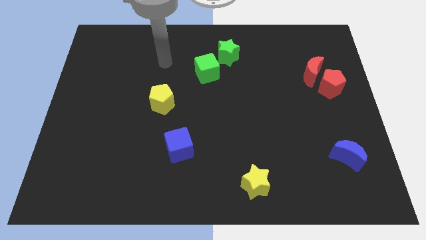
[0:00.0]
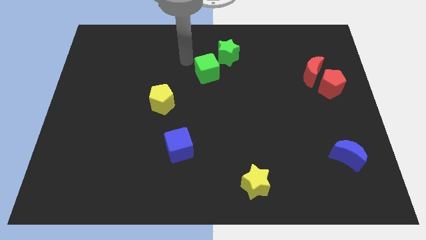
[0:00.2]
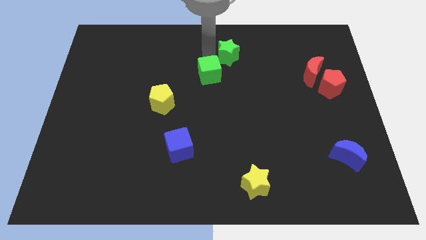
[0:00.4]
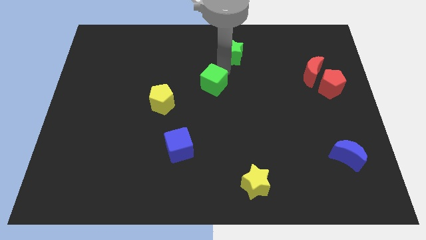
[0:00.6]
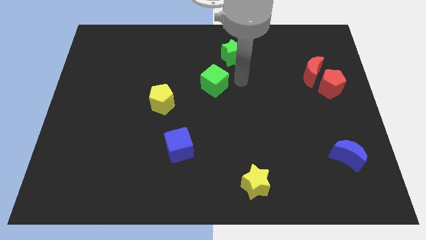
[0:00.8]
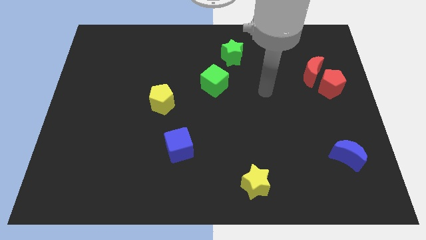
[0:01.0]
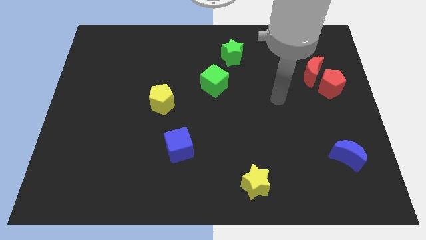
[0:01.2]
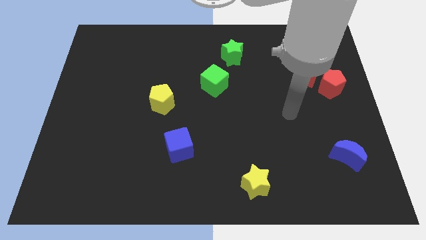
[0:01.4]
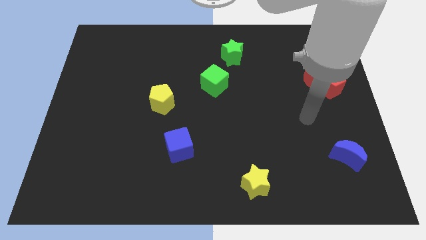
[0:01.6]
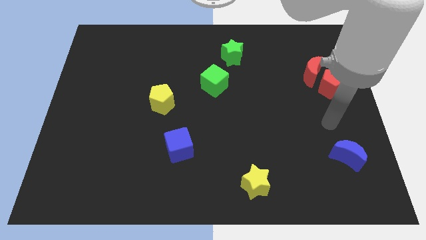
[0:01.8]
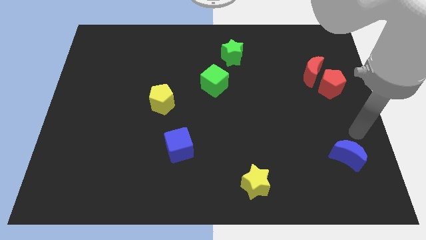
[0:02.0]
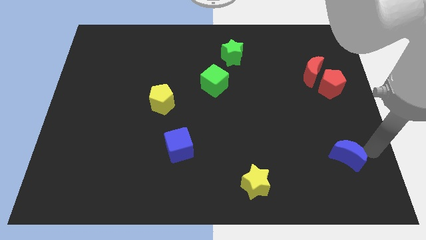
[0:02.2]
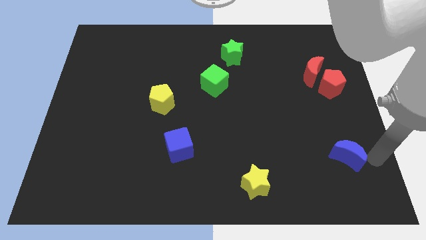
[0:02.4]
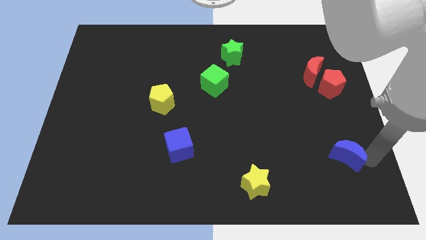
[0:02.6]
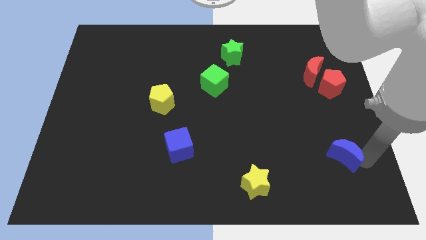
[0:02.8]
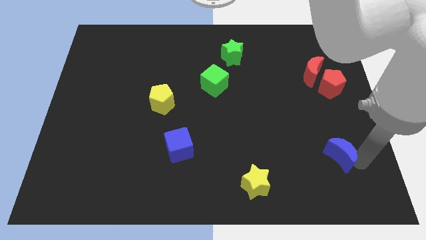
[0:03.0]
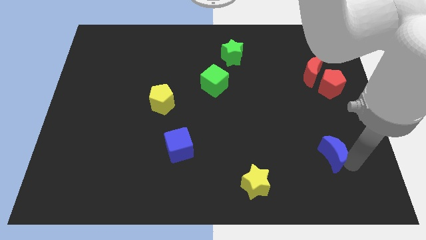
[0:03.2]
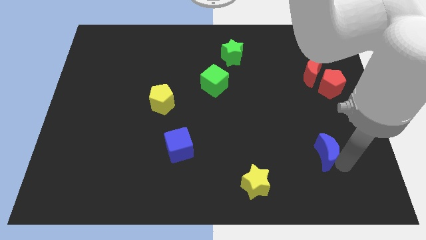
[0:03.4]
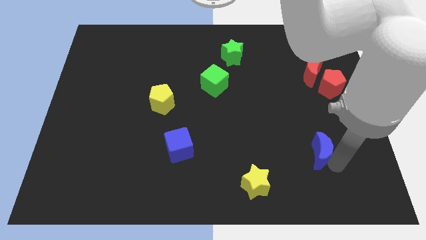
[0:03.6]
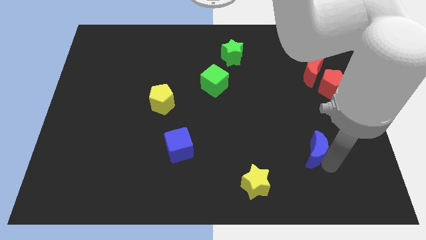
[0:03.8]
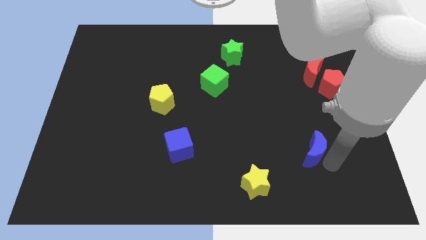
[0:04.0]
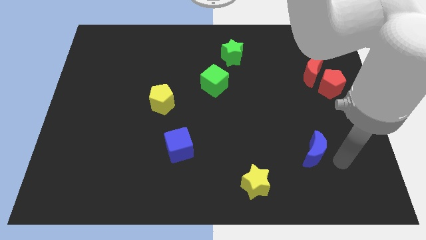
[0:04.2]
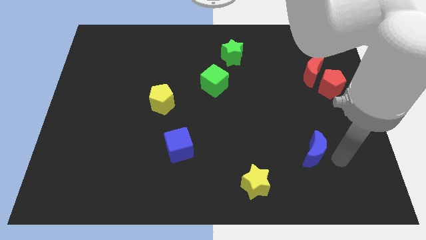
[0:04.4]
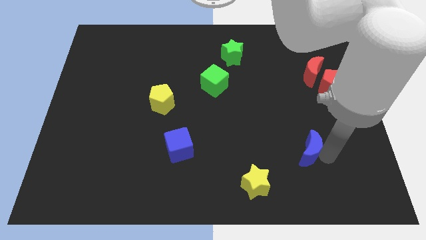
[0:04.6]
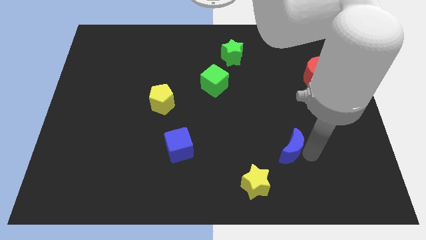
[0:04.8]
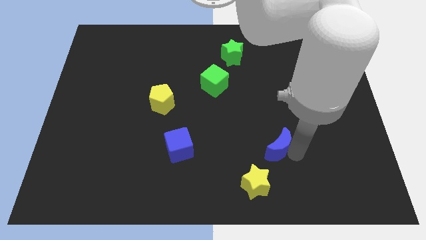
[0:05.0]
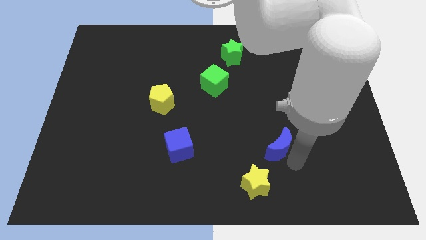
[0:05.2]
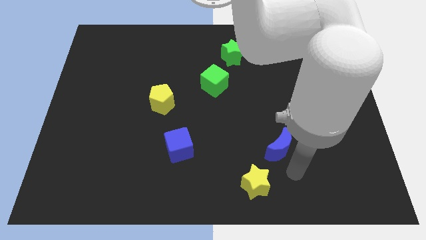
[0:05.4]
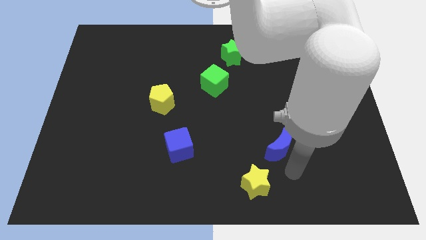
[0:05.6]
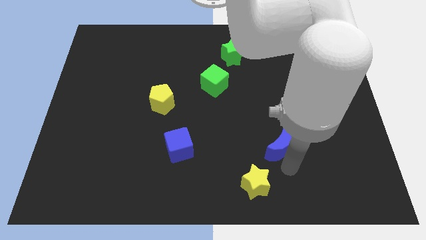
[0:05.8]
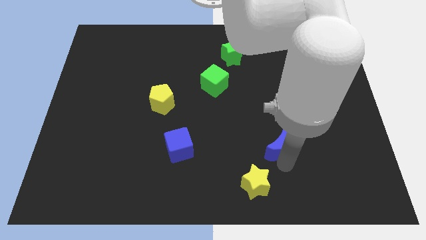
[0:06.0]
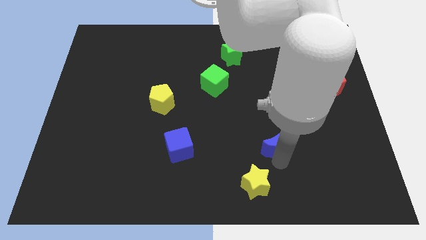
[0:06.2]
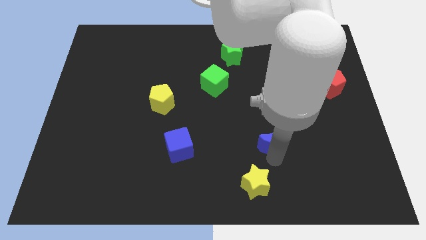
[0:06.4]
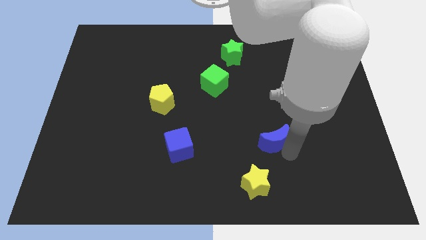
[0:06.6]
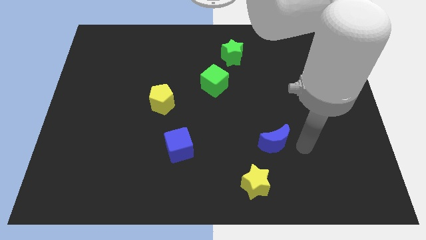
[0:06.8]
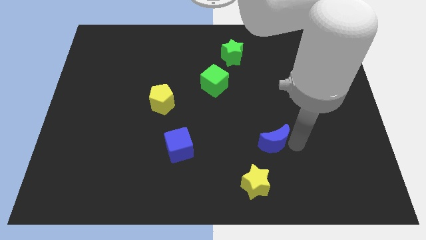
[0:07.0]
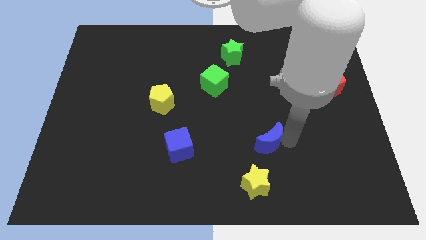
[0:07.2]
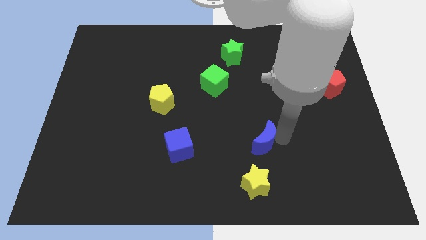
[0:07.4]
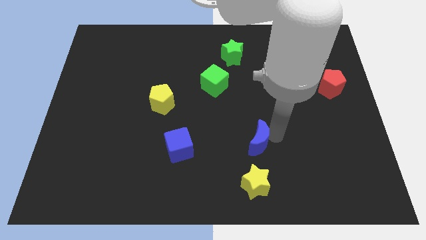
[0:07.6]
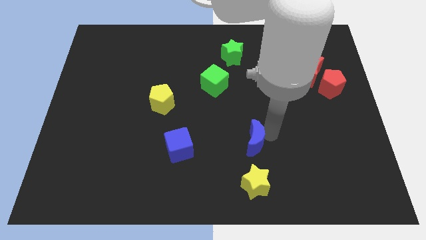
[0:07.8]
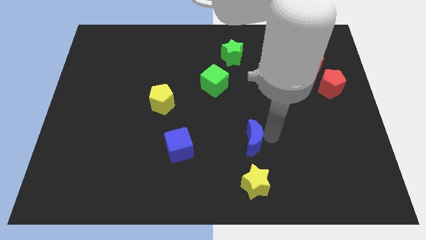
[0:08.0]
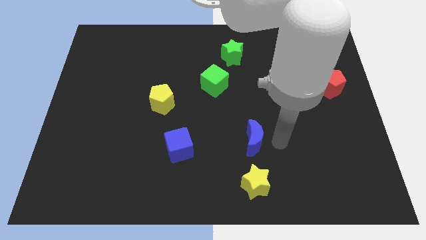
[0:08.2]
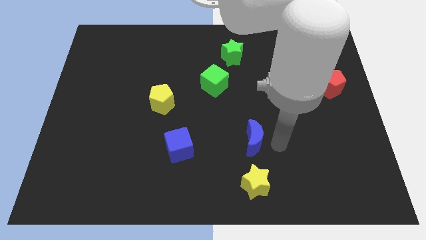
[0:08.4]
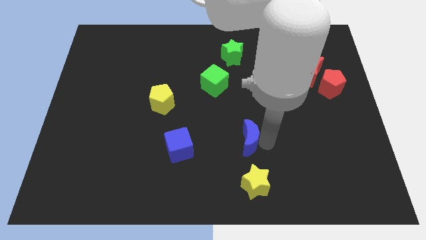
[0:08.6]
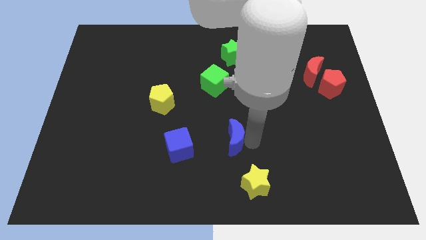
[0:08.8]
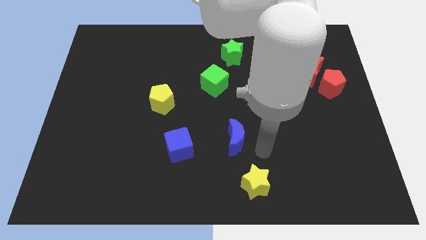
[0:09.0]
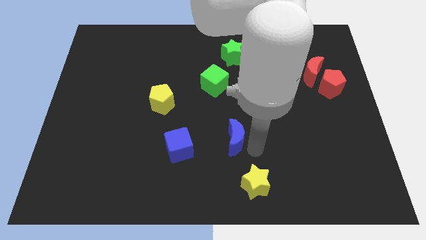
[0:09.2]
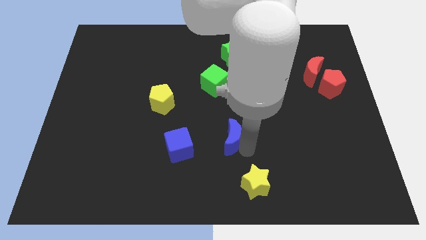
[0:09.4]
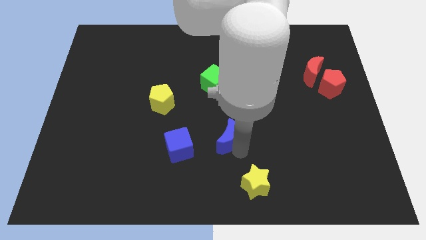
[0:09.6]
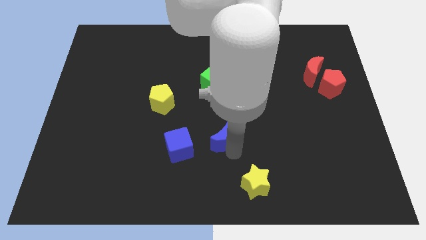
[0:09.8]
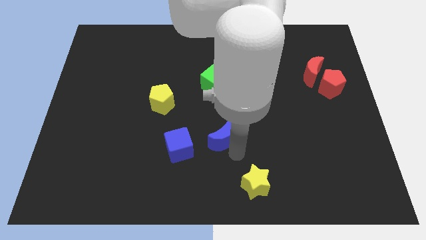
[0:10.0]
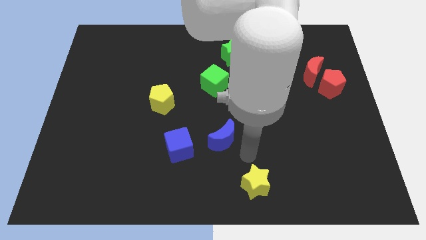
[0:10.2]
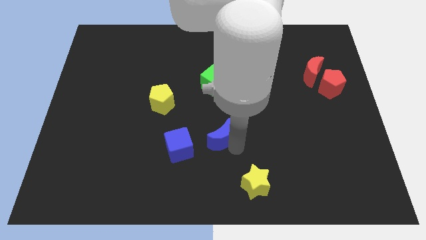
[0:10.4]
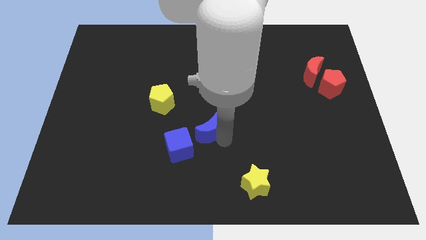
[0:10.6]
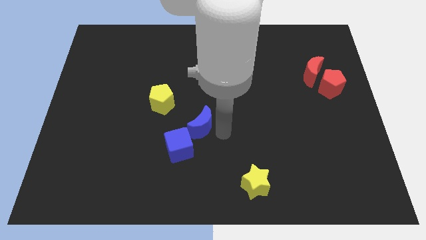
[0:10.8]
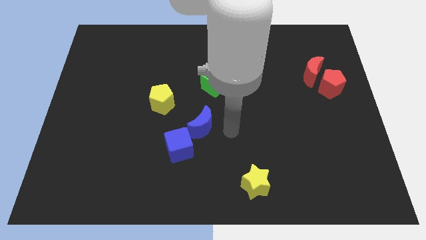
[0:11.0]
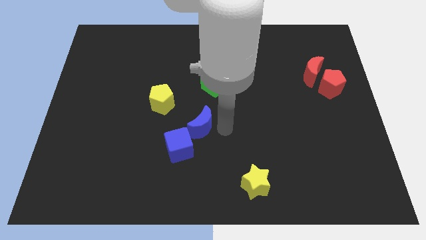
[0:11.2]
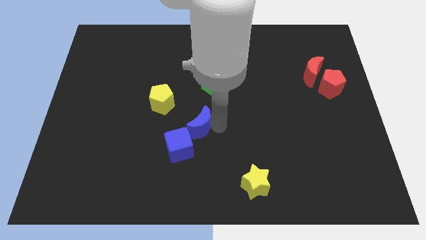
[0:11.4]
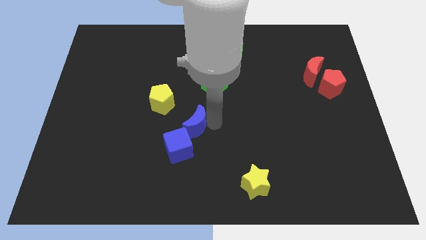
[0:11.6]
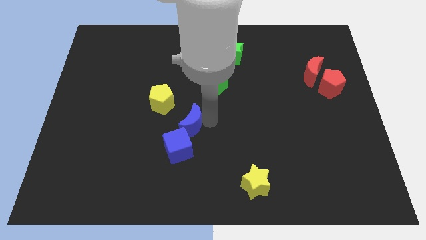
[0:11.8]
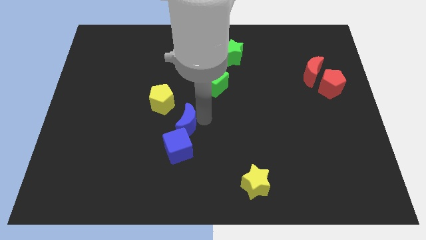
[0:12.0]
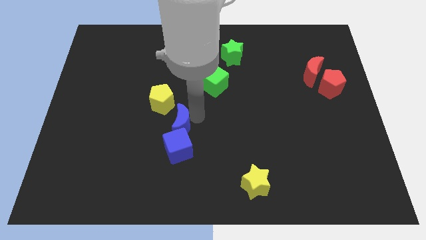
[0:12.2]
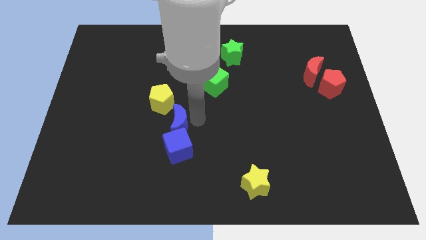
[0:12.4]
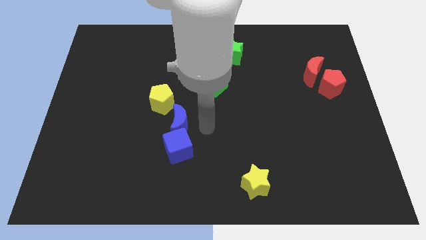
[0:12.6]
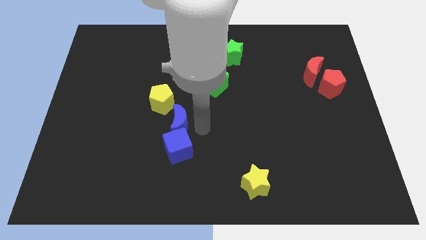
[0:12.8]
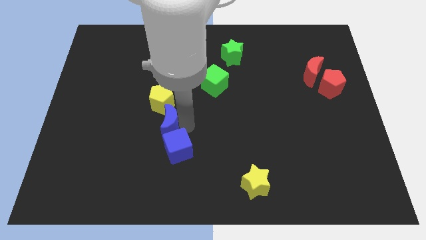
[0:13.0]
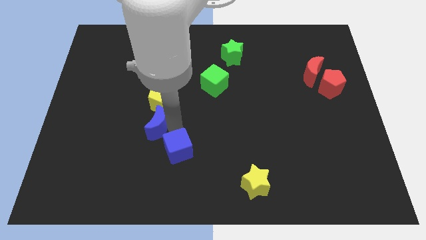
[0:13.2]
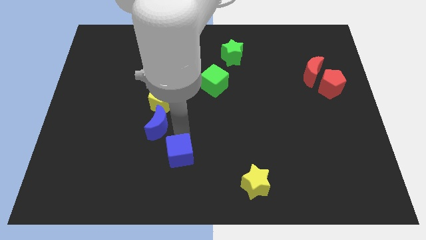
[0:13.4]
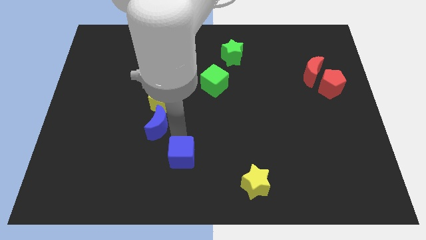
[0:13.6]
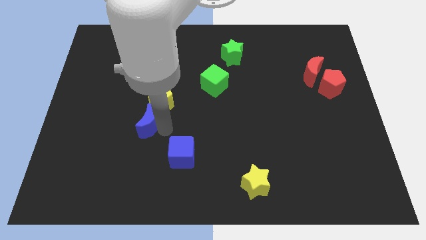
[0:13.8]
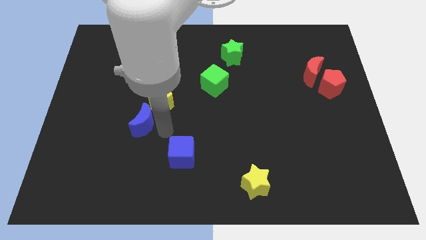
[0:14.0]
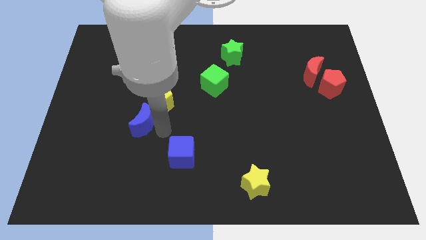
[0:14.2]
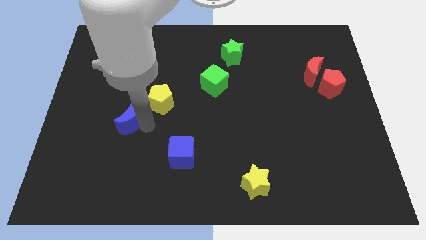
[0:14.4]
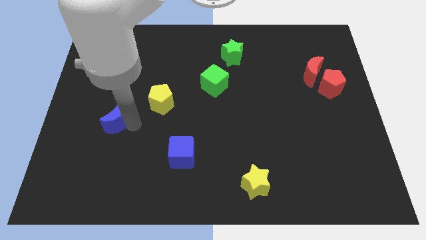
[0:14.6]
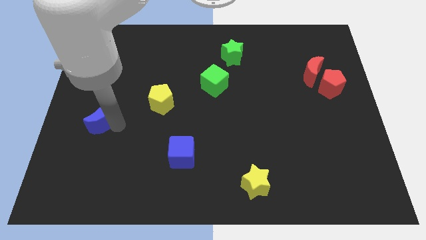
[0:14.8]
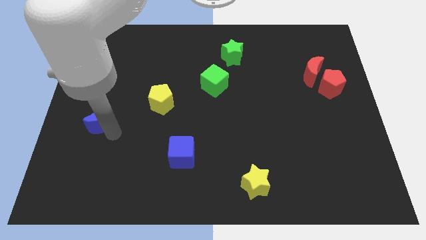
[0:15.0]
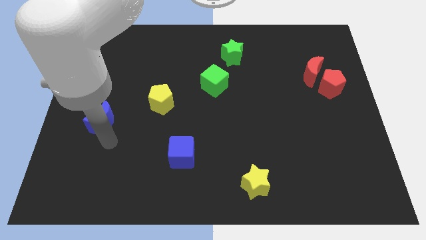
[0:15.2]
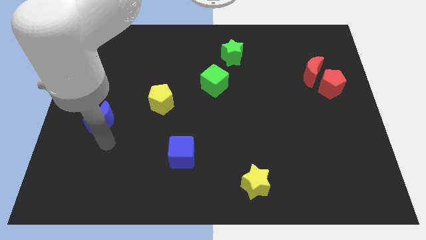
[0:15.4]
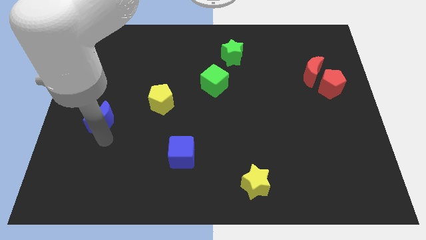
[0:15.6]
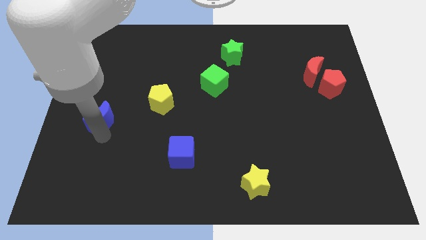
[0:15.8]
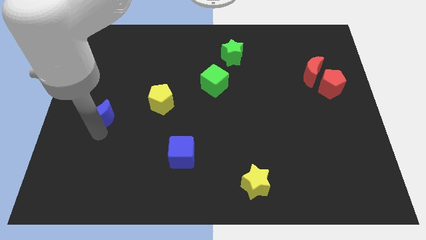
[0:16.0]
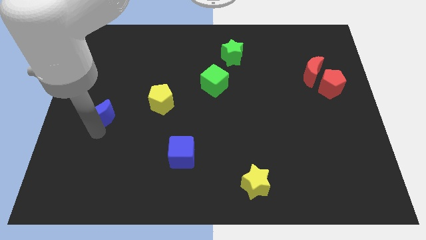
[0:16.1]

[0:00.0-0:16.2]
put the blue moon to the left side of the board
